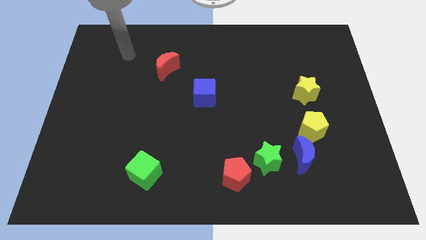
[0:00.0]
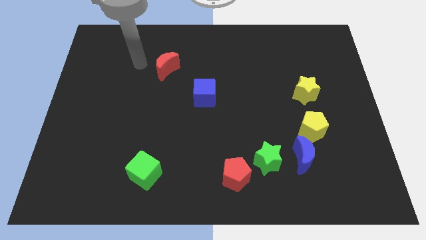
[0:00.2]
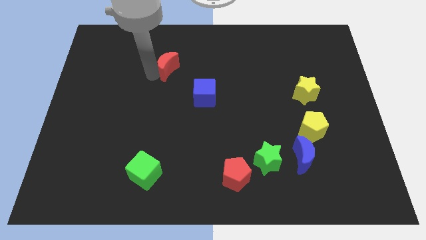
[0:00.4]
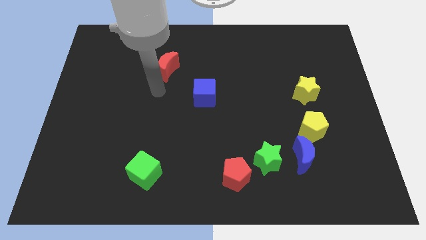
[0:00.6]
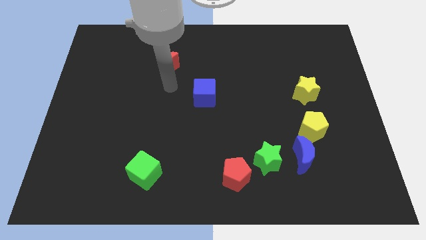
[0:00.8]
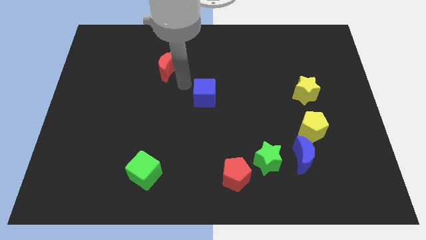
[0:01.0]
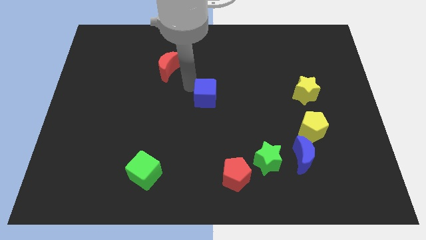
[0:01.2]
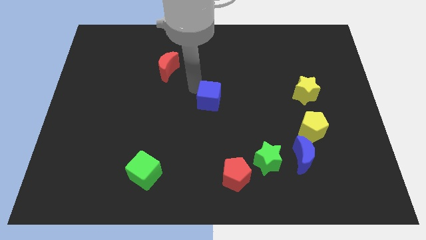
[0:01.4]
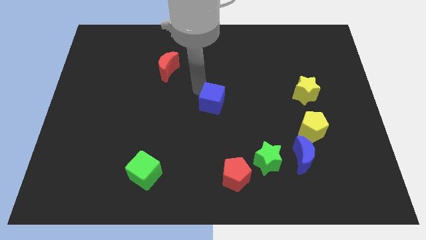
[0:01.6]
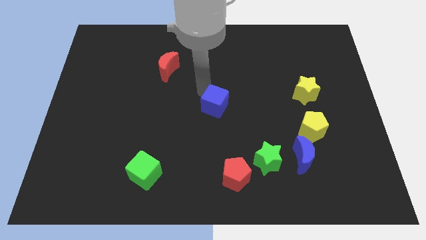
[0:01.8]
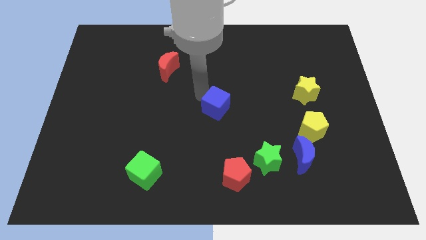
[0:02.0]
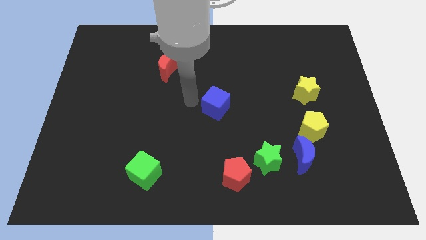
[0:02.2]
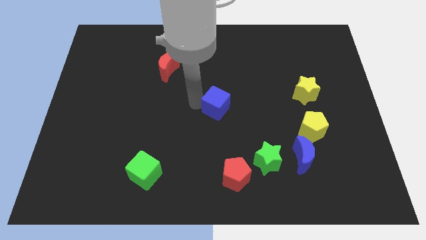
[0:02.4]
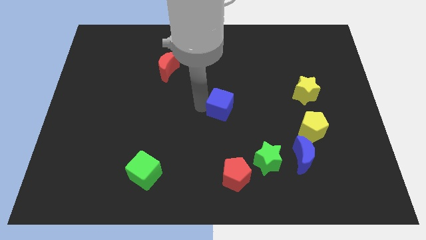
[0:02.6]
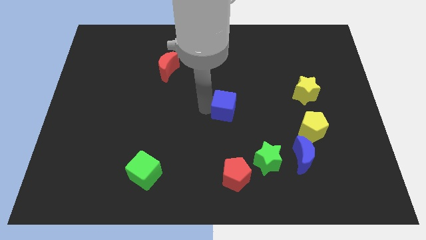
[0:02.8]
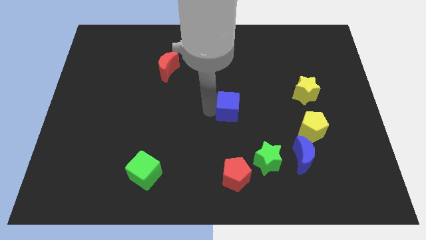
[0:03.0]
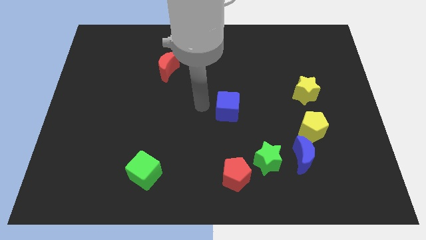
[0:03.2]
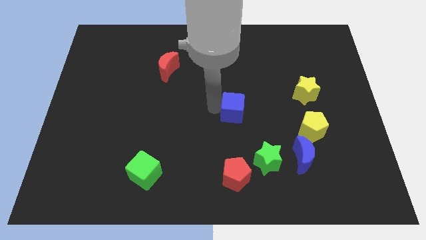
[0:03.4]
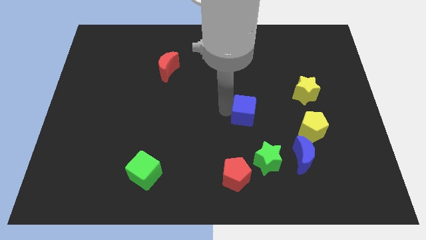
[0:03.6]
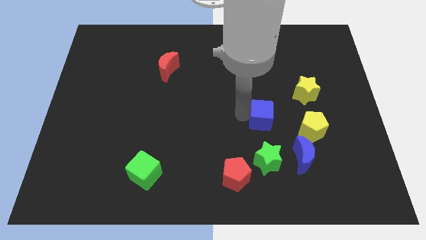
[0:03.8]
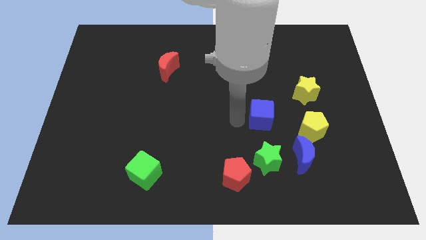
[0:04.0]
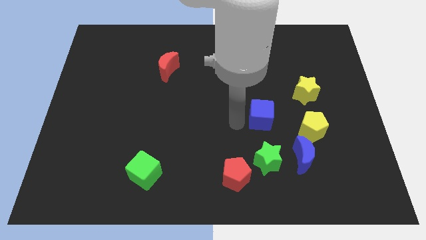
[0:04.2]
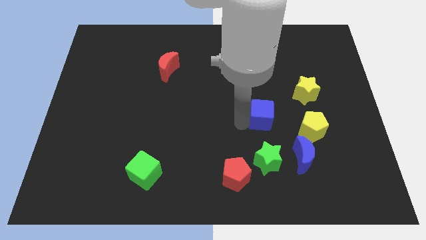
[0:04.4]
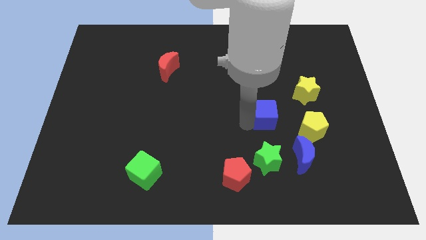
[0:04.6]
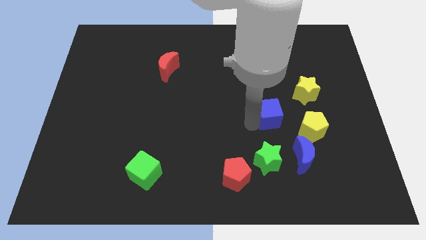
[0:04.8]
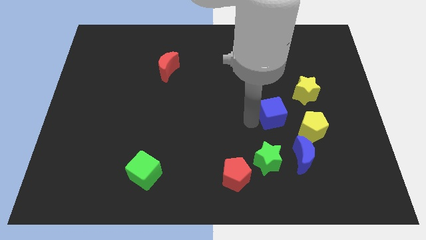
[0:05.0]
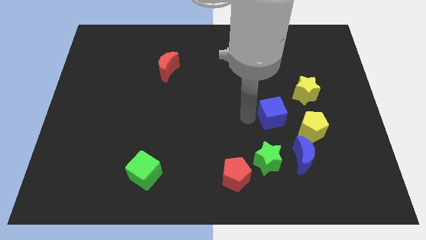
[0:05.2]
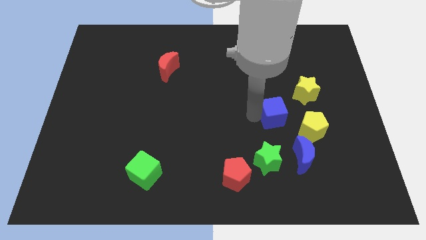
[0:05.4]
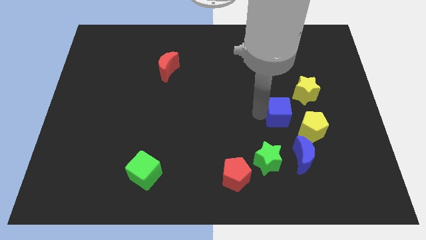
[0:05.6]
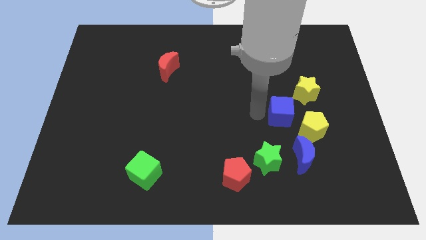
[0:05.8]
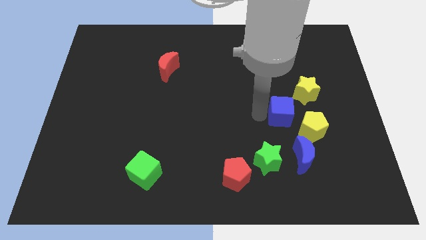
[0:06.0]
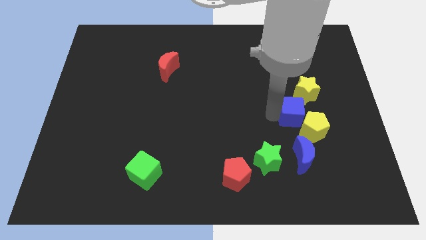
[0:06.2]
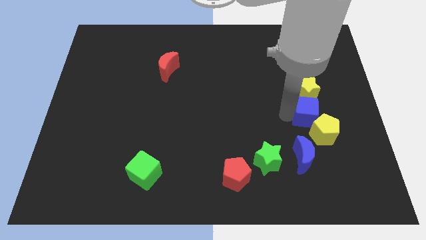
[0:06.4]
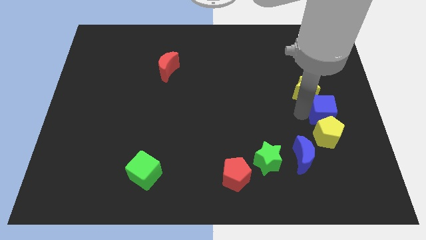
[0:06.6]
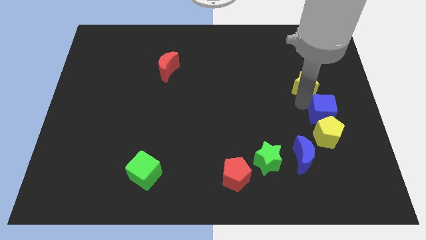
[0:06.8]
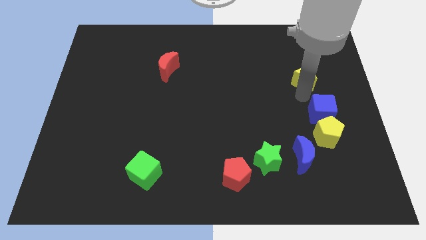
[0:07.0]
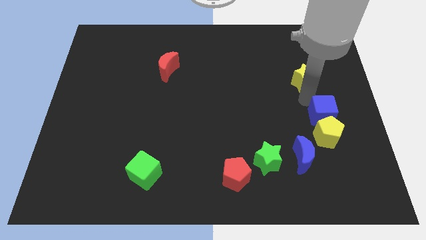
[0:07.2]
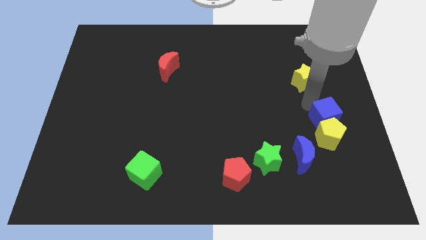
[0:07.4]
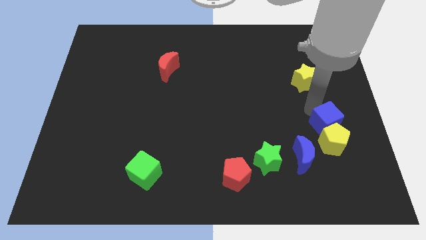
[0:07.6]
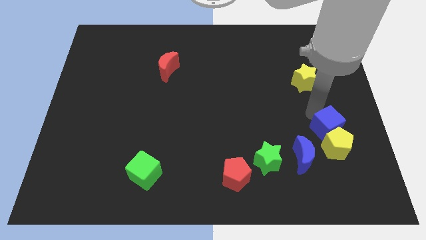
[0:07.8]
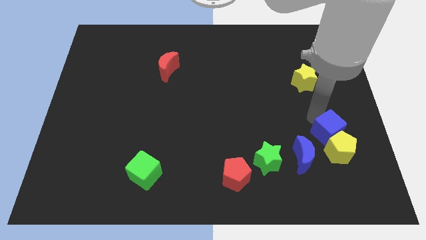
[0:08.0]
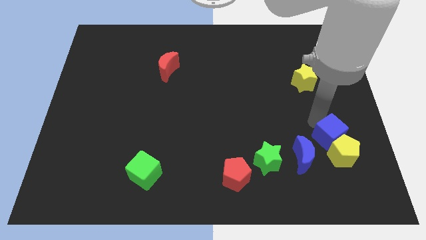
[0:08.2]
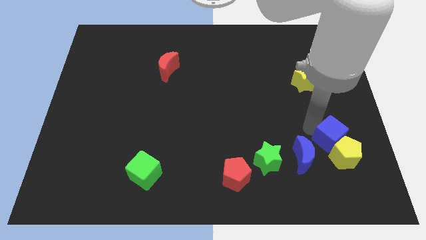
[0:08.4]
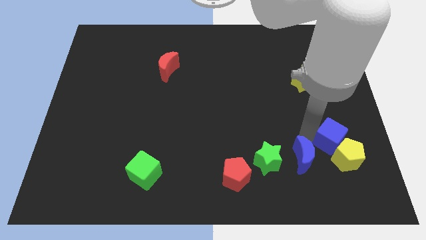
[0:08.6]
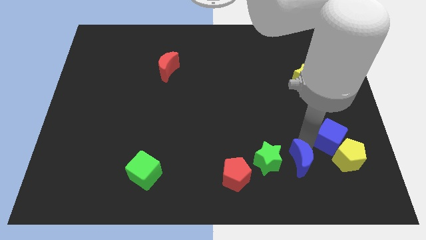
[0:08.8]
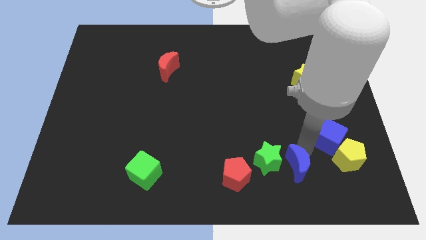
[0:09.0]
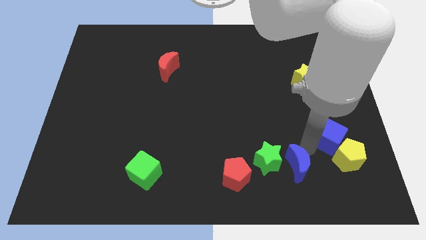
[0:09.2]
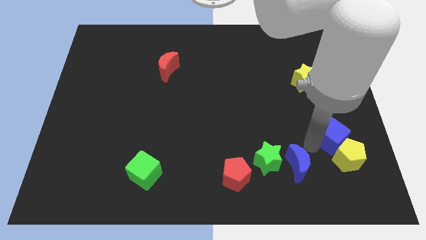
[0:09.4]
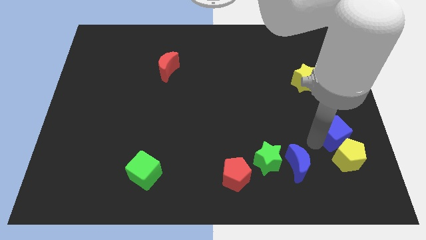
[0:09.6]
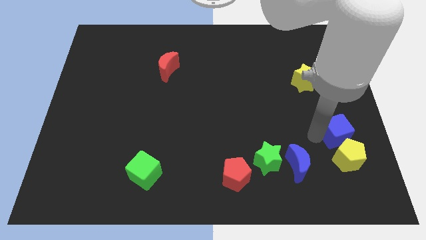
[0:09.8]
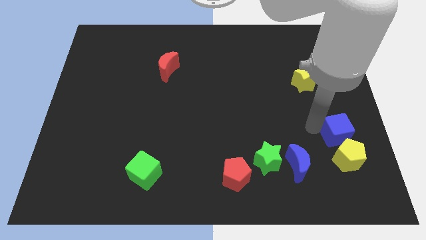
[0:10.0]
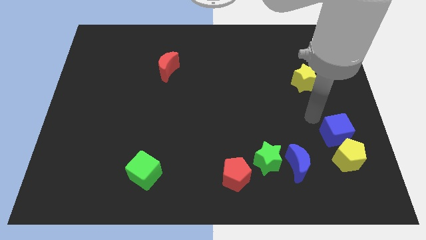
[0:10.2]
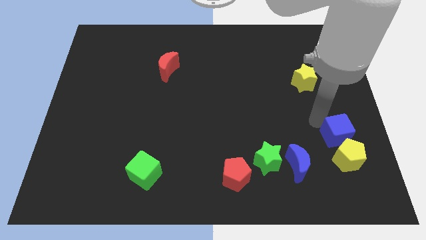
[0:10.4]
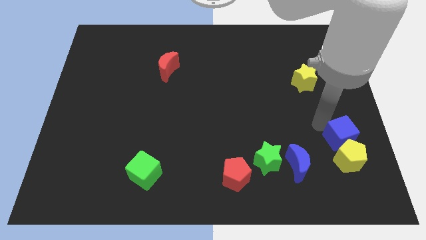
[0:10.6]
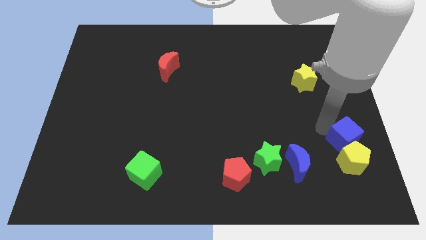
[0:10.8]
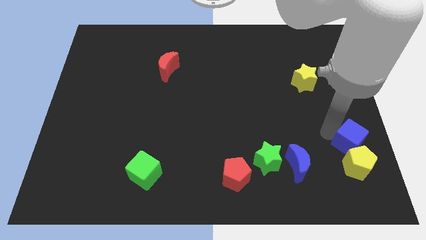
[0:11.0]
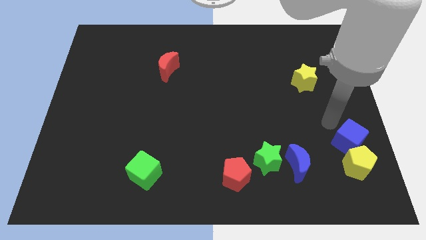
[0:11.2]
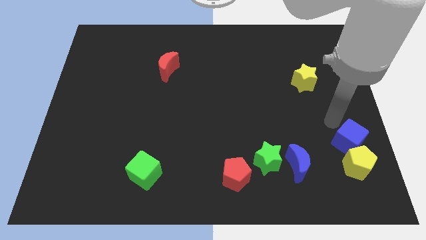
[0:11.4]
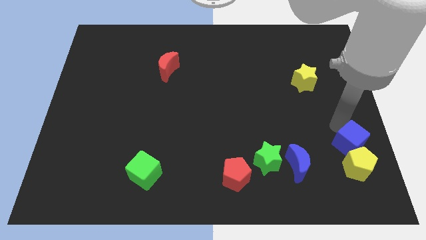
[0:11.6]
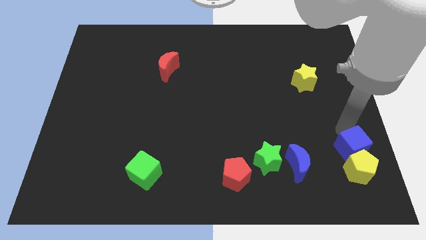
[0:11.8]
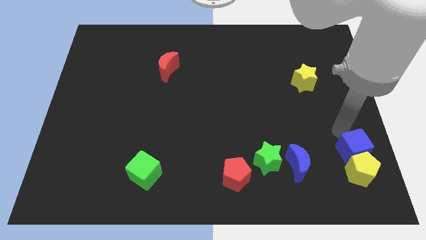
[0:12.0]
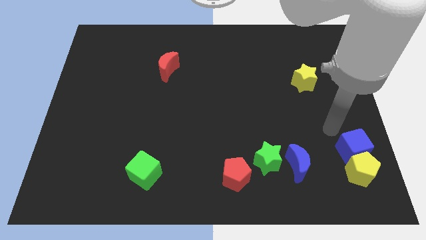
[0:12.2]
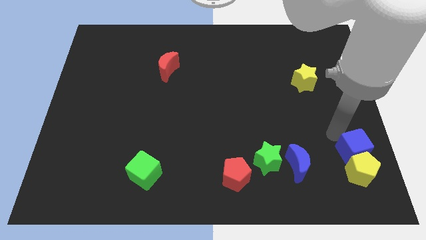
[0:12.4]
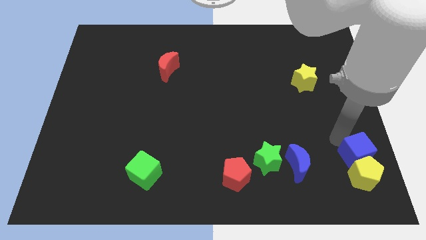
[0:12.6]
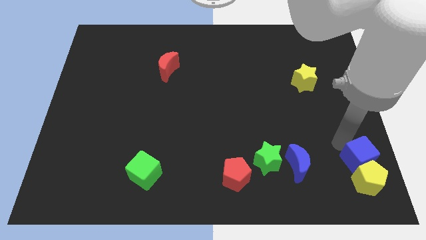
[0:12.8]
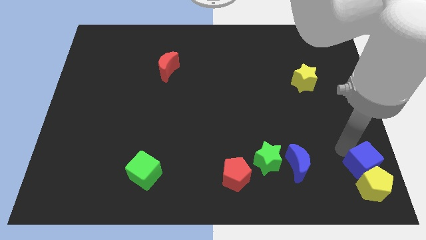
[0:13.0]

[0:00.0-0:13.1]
put the blue cube to the bottom right corner

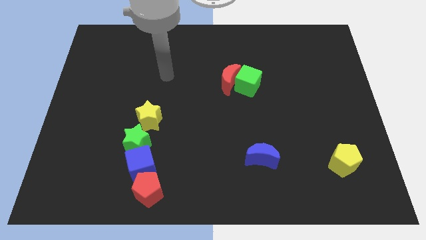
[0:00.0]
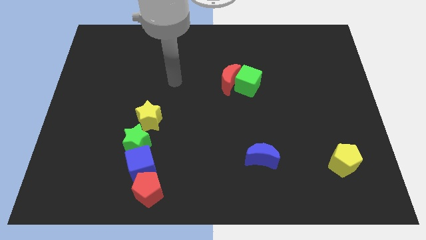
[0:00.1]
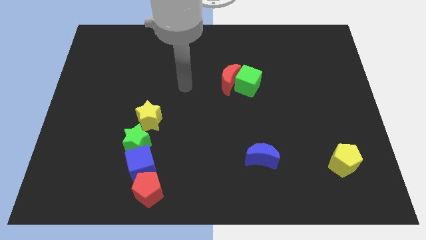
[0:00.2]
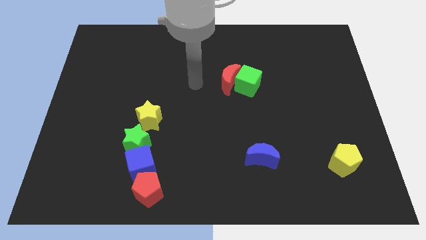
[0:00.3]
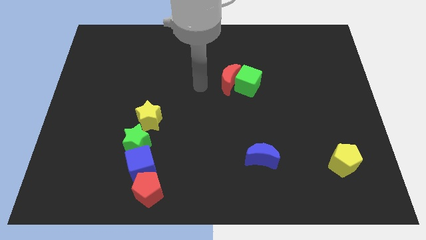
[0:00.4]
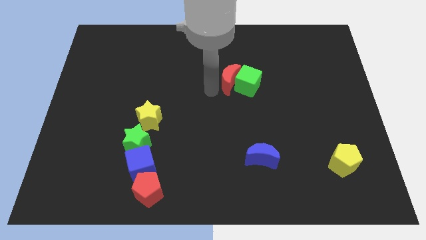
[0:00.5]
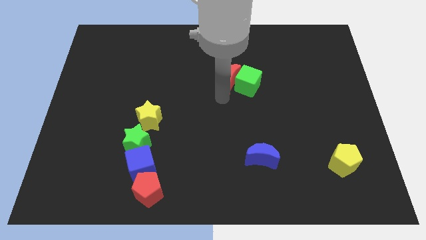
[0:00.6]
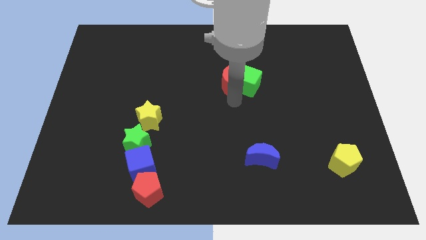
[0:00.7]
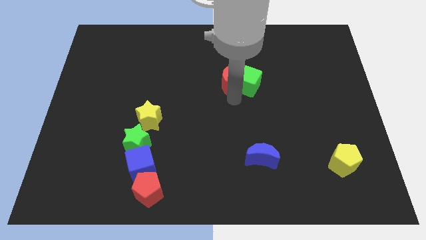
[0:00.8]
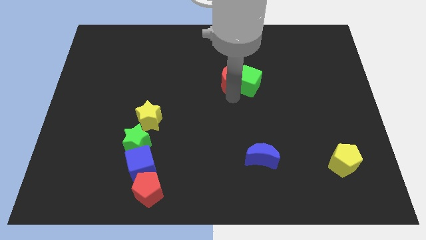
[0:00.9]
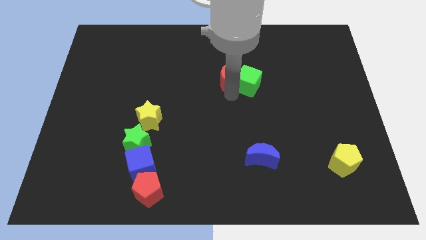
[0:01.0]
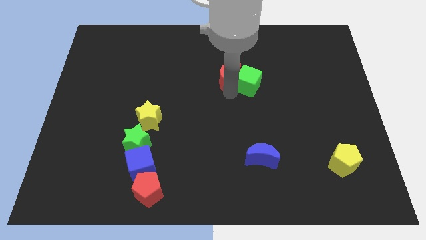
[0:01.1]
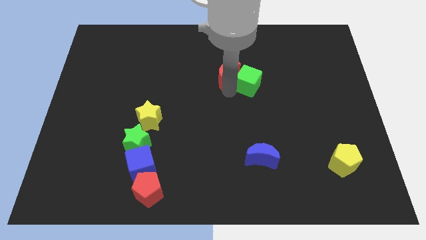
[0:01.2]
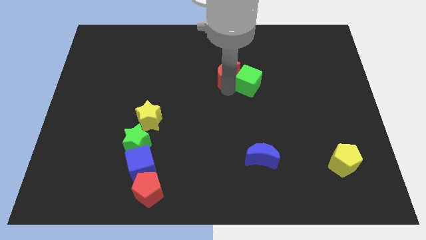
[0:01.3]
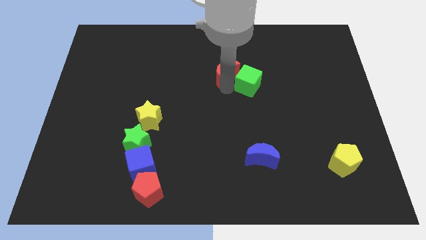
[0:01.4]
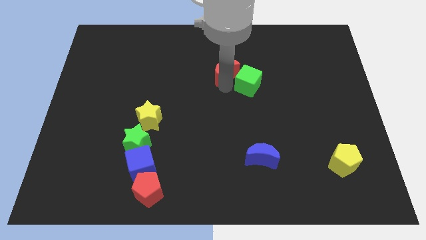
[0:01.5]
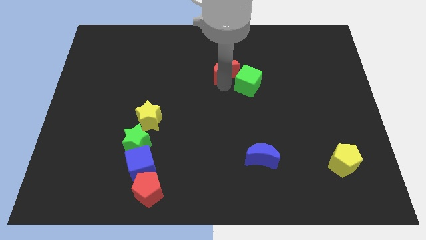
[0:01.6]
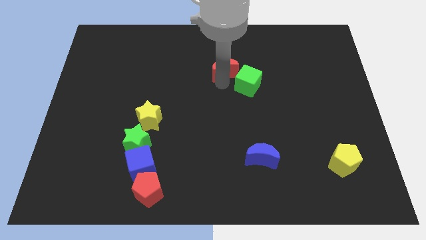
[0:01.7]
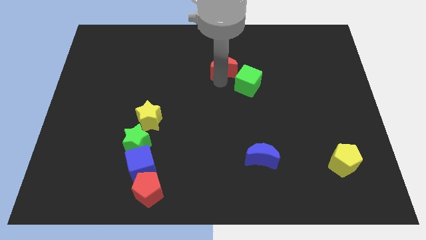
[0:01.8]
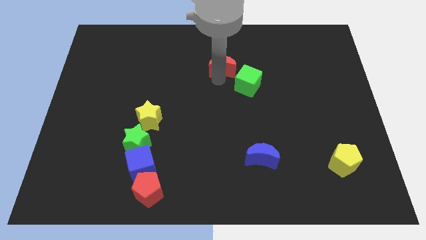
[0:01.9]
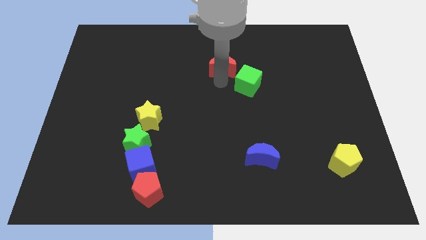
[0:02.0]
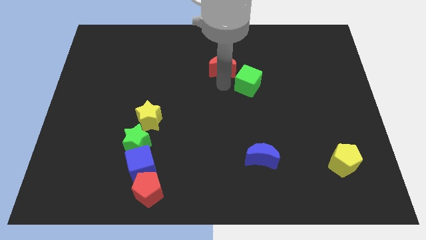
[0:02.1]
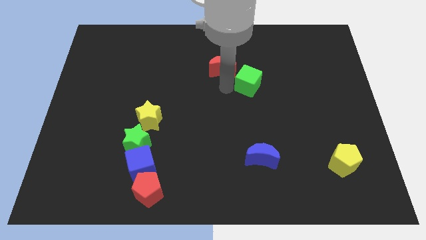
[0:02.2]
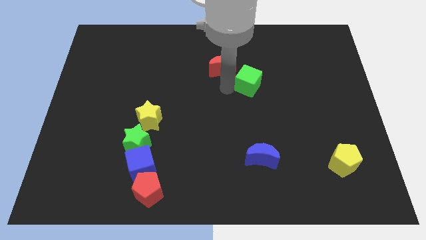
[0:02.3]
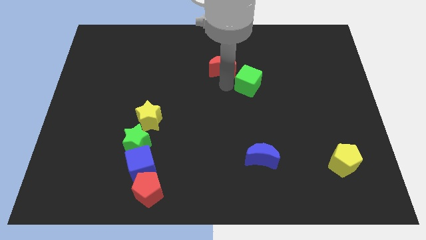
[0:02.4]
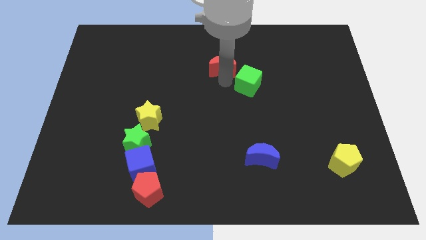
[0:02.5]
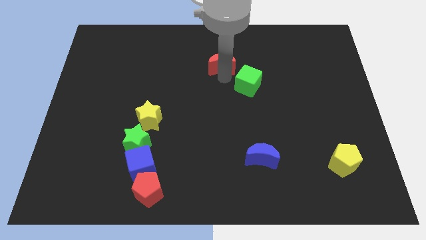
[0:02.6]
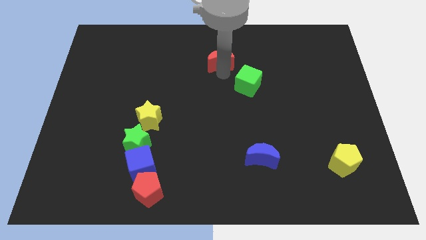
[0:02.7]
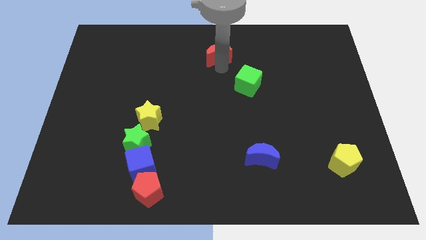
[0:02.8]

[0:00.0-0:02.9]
move the red moon to the top side
